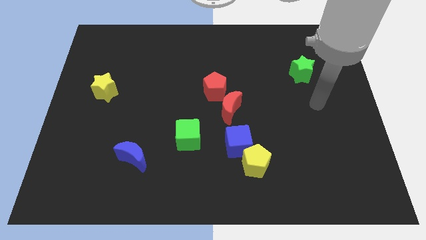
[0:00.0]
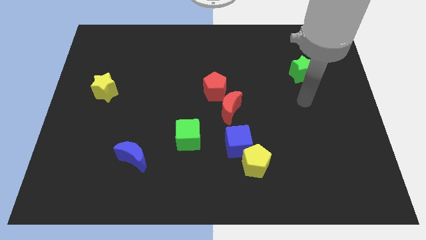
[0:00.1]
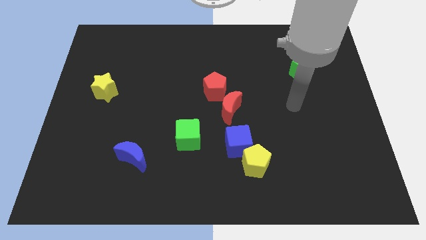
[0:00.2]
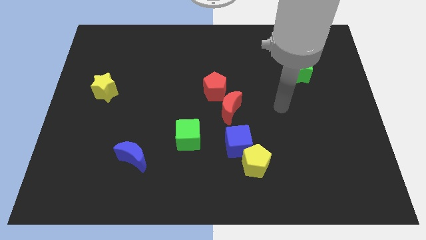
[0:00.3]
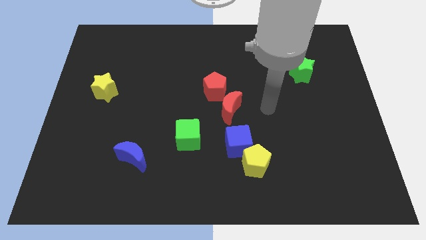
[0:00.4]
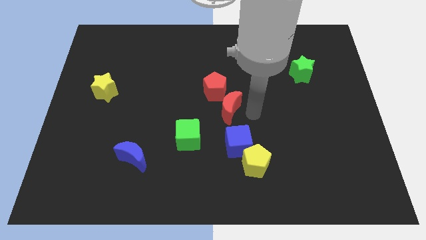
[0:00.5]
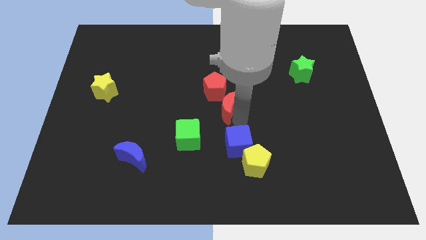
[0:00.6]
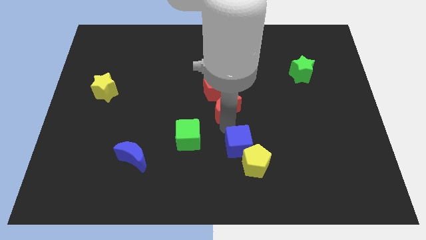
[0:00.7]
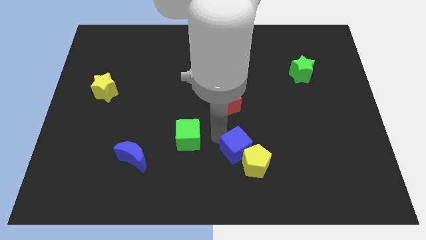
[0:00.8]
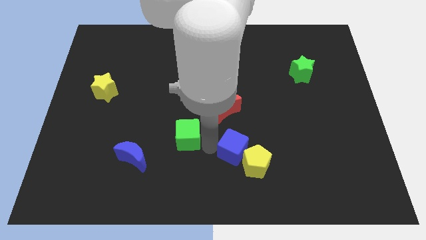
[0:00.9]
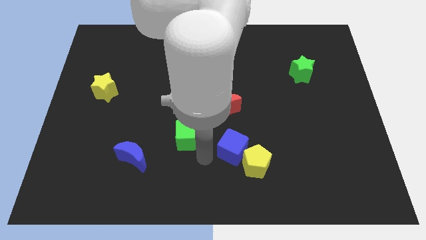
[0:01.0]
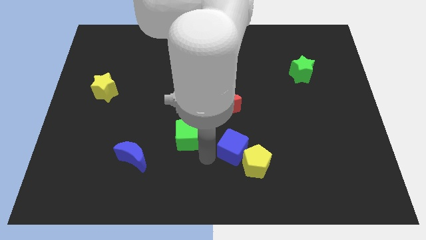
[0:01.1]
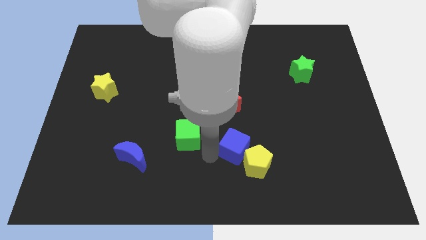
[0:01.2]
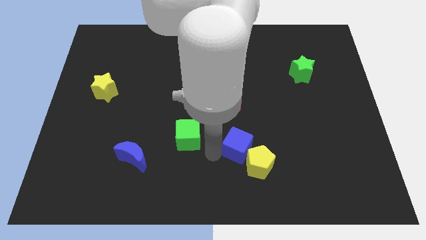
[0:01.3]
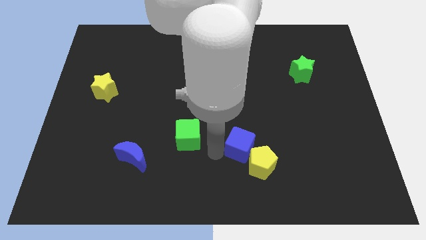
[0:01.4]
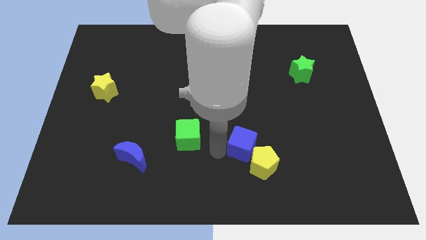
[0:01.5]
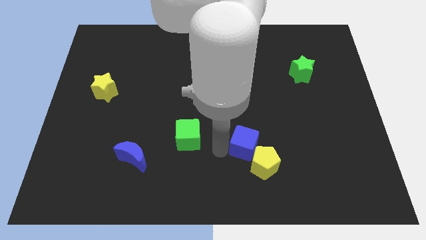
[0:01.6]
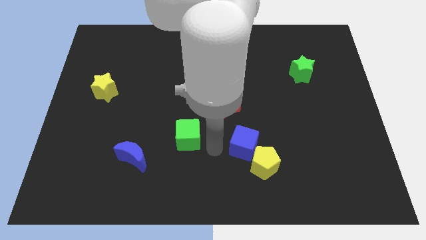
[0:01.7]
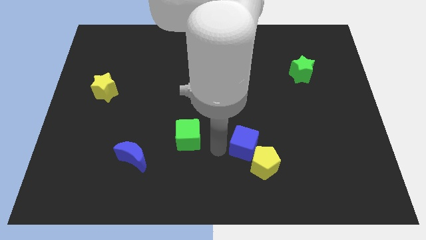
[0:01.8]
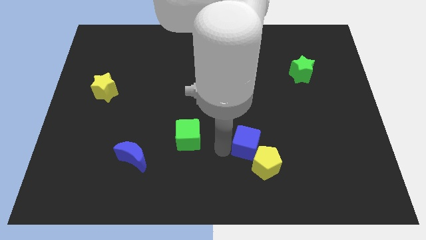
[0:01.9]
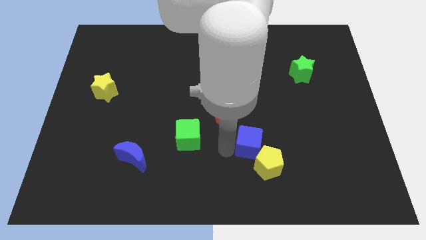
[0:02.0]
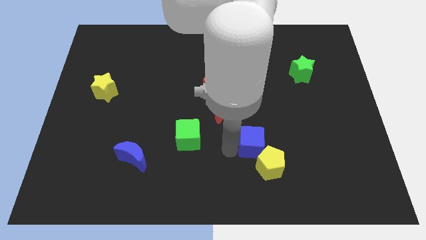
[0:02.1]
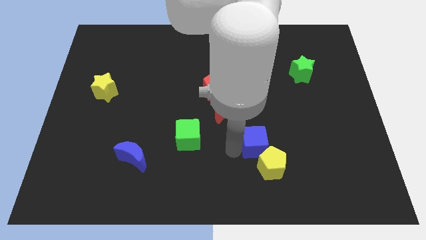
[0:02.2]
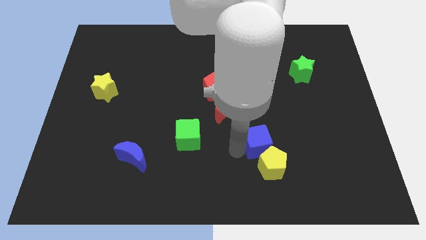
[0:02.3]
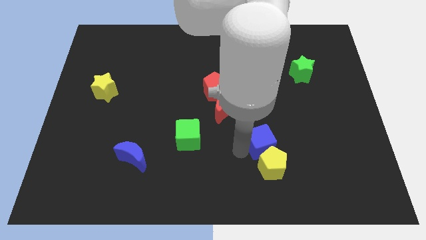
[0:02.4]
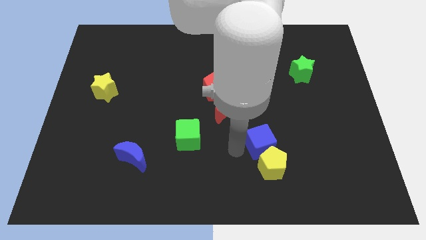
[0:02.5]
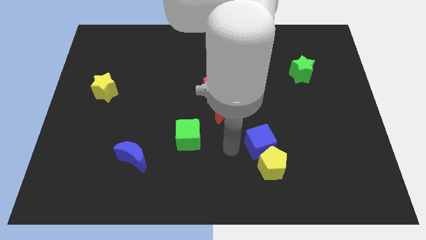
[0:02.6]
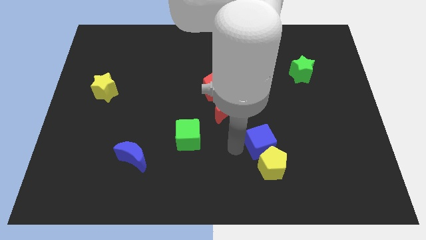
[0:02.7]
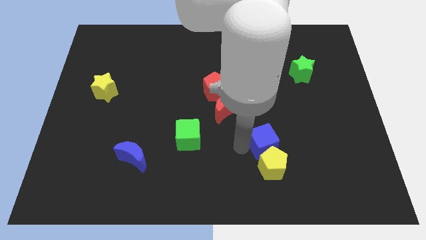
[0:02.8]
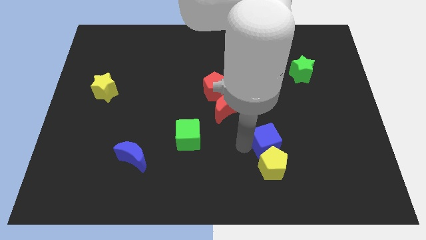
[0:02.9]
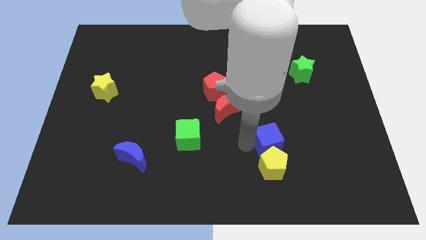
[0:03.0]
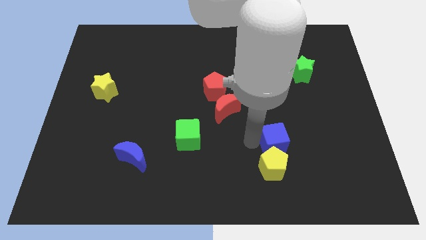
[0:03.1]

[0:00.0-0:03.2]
slightly push the blue cube right

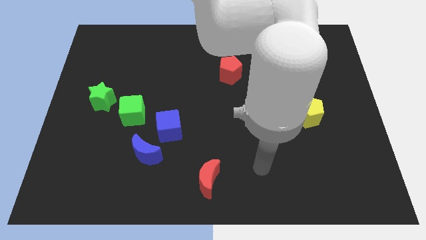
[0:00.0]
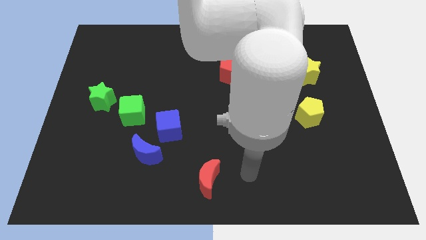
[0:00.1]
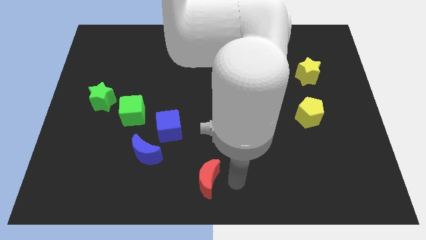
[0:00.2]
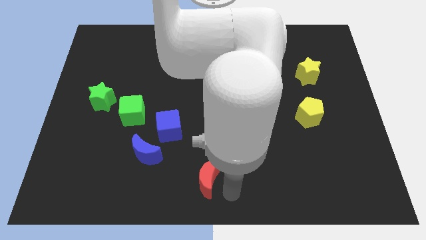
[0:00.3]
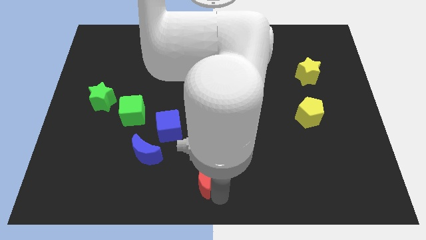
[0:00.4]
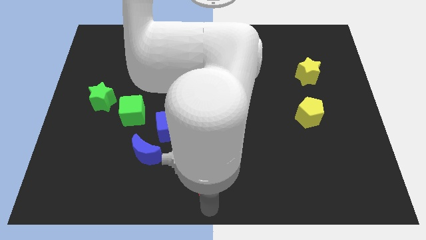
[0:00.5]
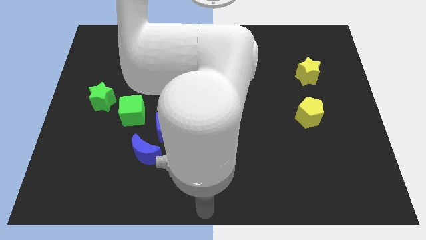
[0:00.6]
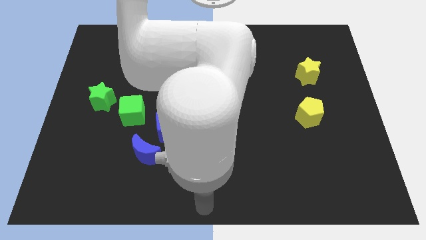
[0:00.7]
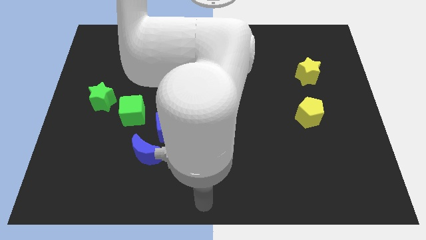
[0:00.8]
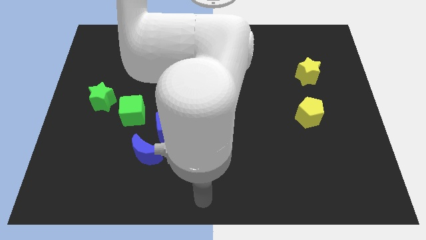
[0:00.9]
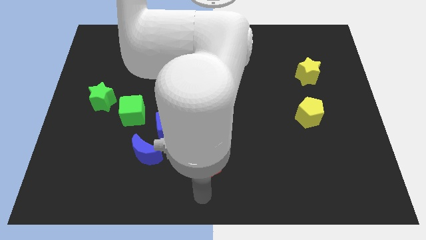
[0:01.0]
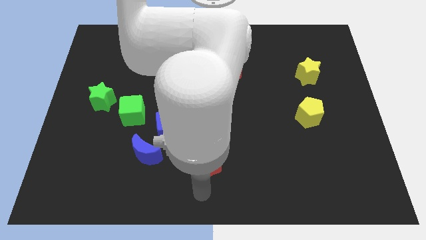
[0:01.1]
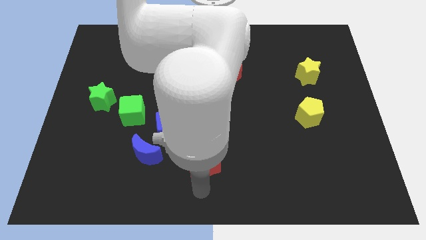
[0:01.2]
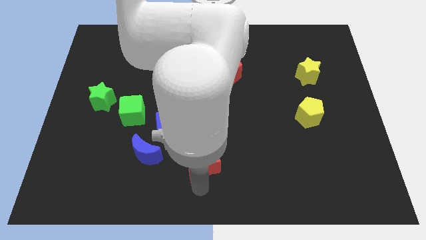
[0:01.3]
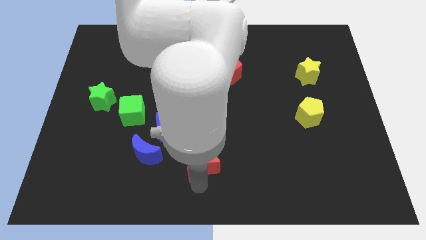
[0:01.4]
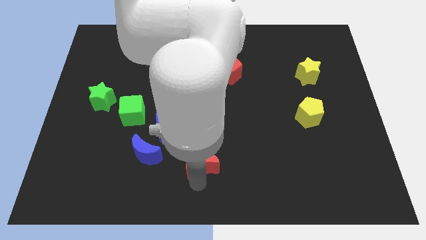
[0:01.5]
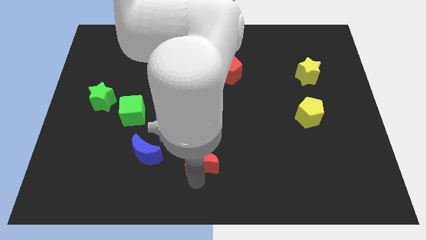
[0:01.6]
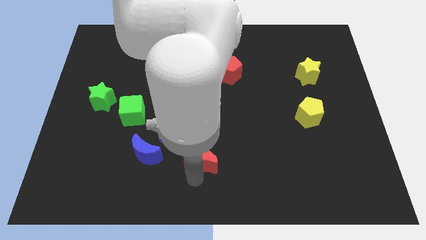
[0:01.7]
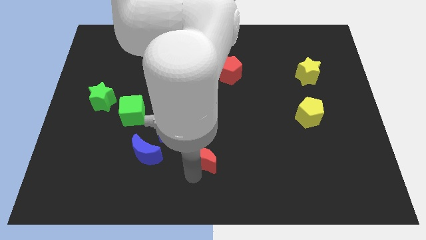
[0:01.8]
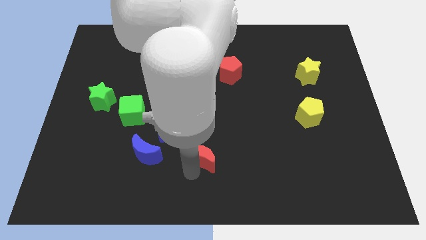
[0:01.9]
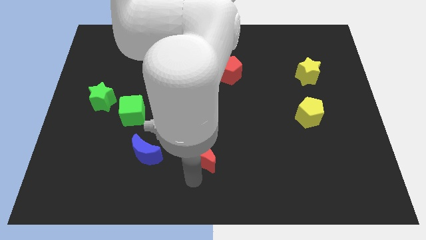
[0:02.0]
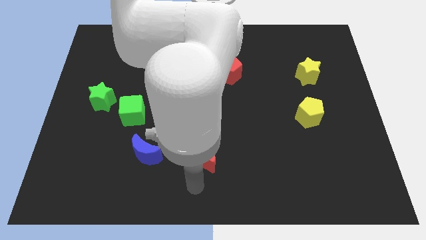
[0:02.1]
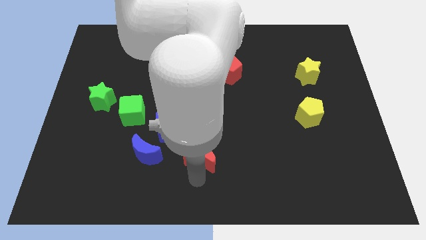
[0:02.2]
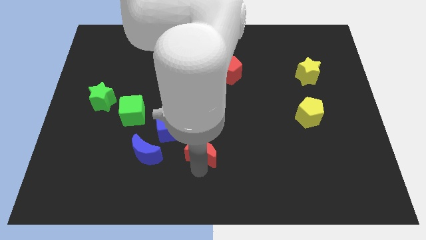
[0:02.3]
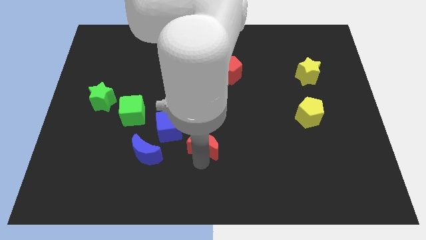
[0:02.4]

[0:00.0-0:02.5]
push the red moon a bit upwards

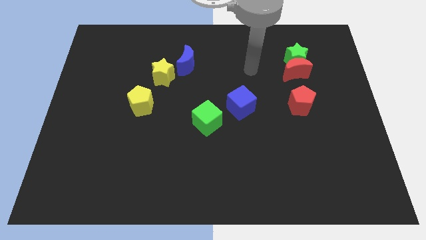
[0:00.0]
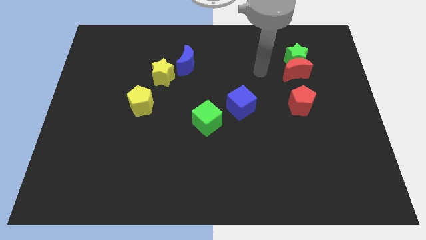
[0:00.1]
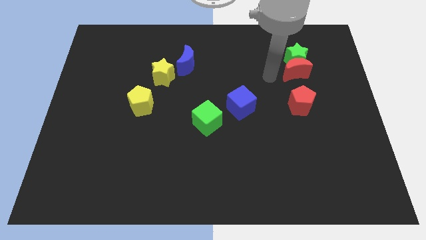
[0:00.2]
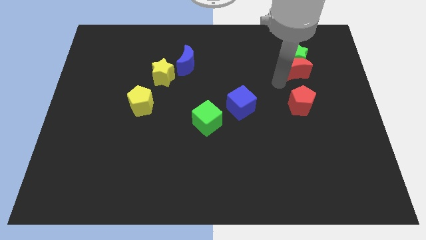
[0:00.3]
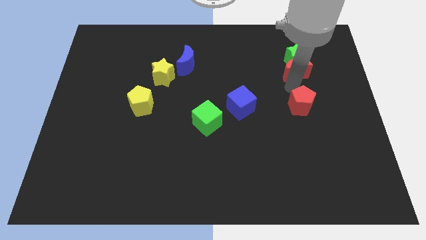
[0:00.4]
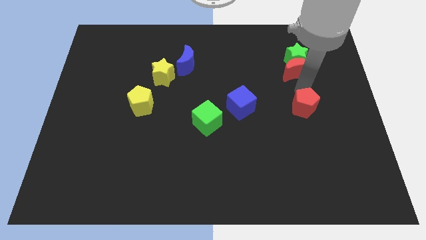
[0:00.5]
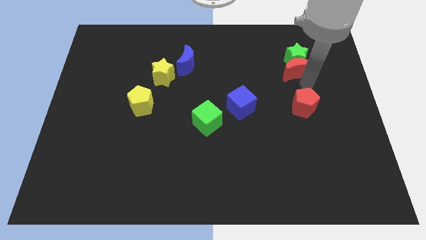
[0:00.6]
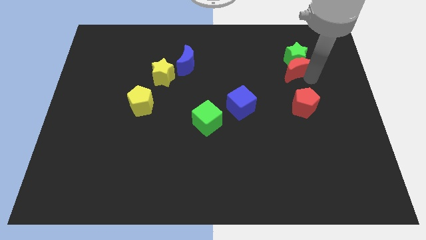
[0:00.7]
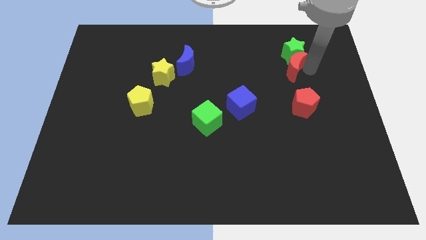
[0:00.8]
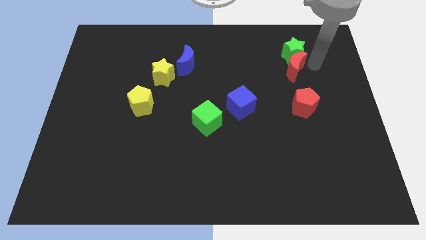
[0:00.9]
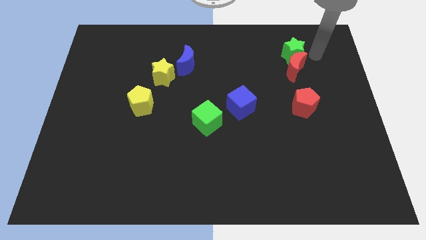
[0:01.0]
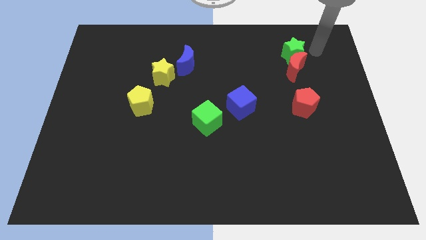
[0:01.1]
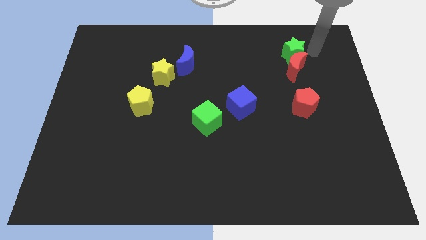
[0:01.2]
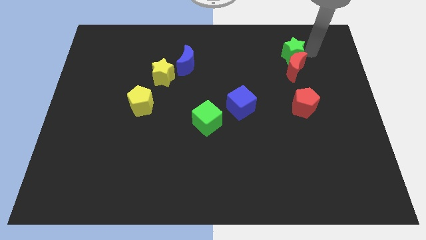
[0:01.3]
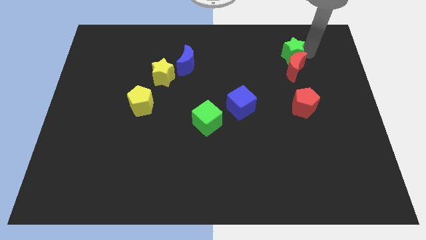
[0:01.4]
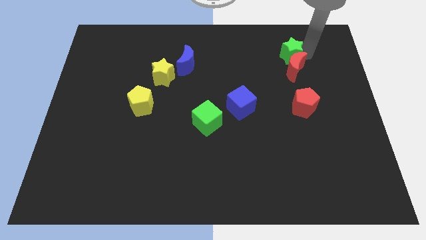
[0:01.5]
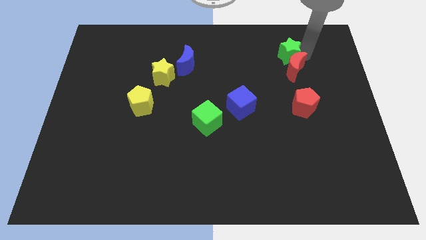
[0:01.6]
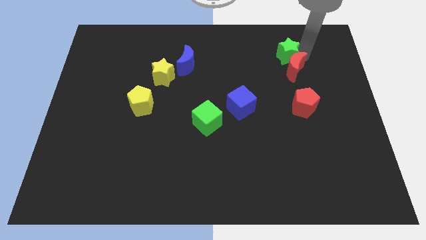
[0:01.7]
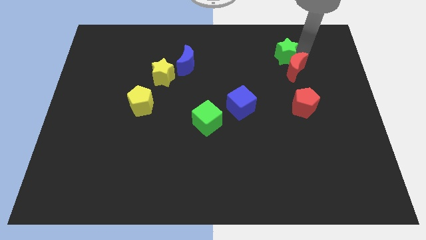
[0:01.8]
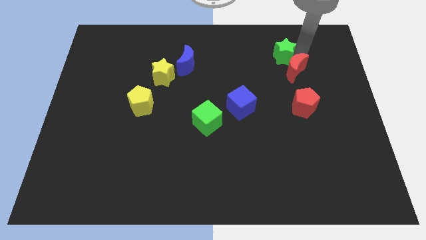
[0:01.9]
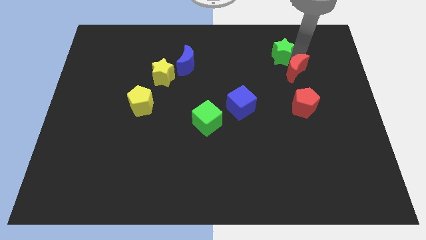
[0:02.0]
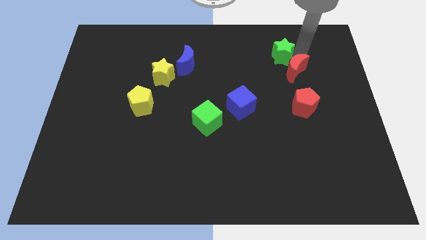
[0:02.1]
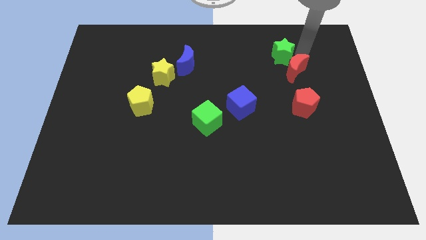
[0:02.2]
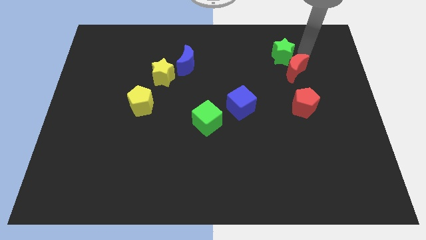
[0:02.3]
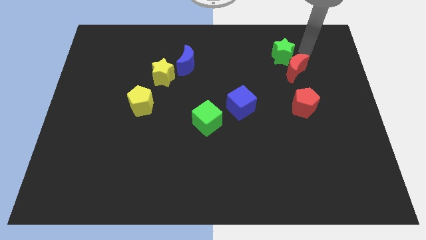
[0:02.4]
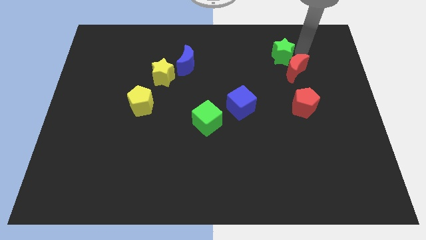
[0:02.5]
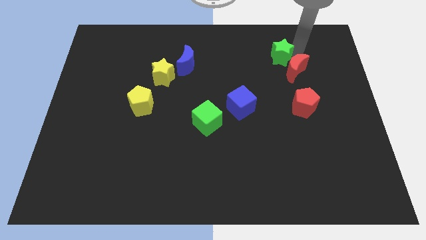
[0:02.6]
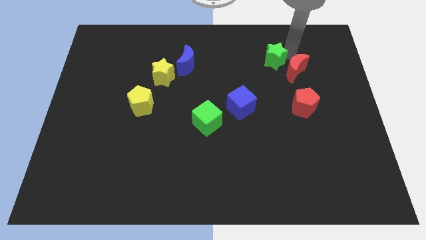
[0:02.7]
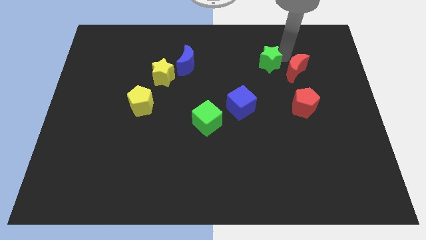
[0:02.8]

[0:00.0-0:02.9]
push the green star to the left a little bit
